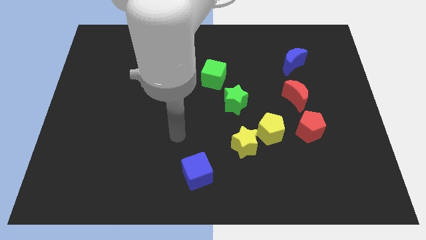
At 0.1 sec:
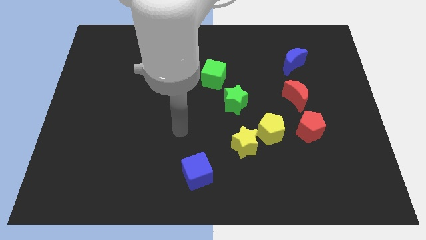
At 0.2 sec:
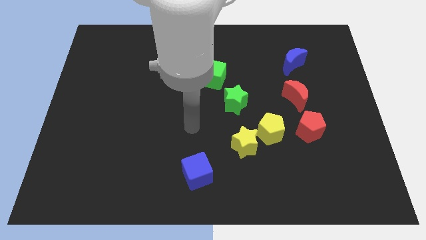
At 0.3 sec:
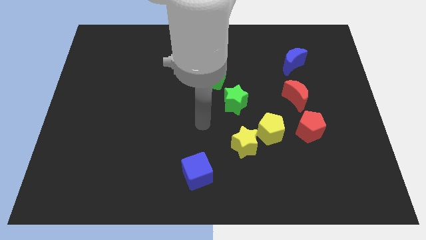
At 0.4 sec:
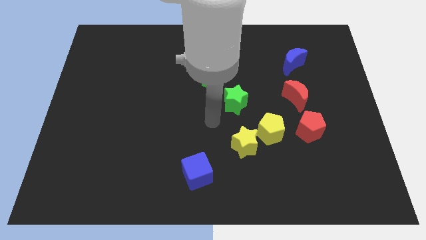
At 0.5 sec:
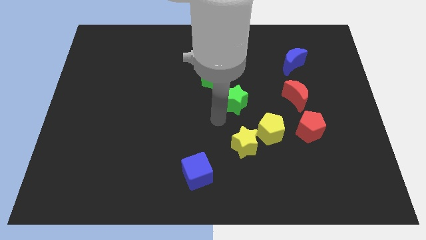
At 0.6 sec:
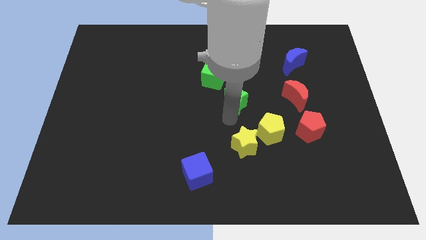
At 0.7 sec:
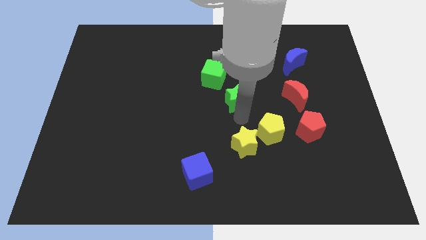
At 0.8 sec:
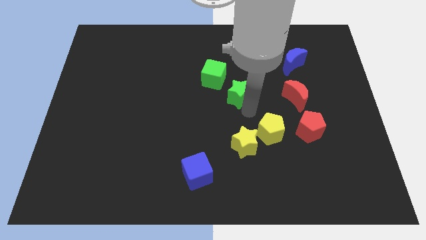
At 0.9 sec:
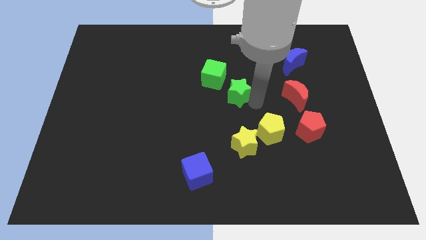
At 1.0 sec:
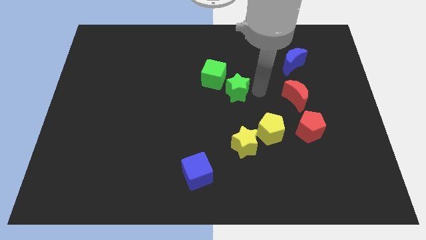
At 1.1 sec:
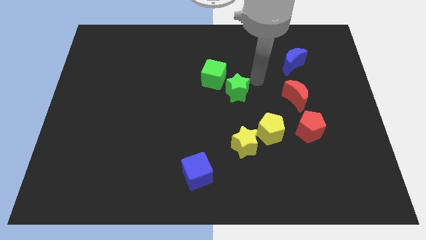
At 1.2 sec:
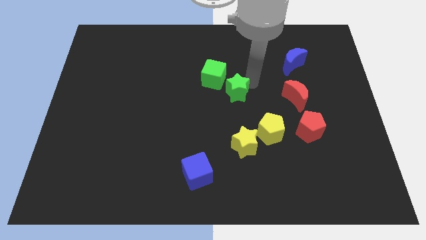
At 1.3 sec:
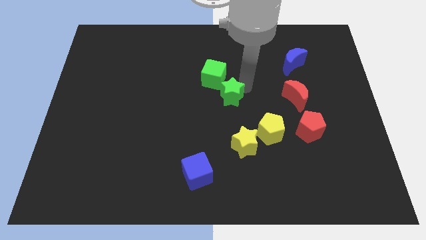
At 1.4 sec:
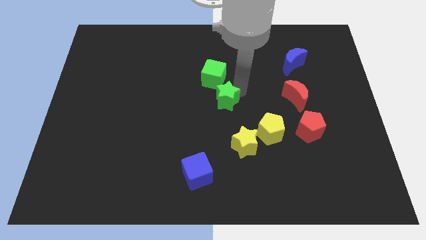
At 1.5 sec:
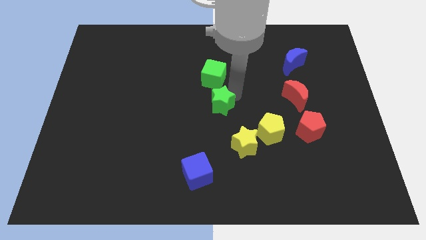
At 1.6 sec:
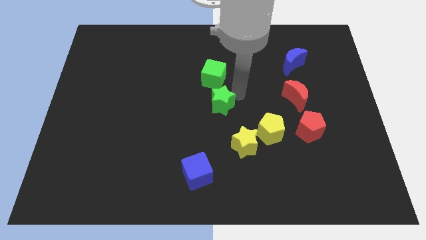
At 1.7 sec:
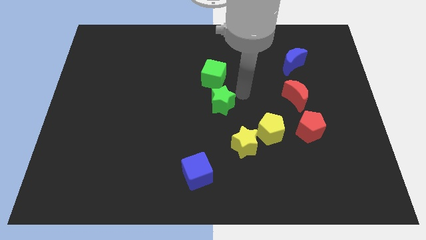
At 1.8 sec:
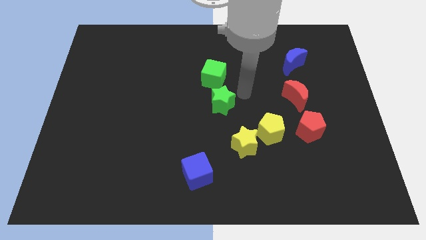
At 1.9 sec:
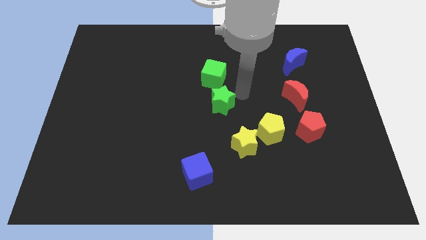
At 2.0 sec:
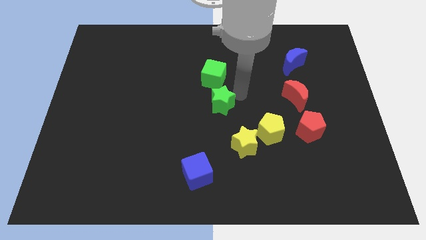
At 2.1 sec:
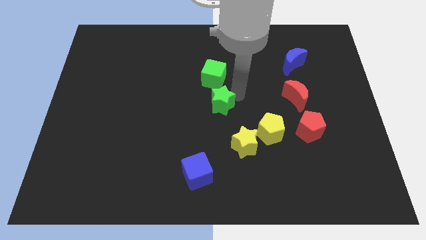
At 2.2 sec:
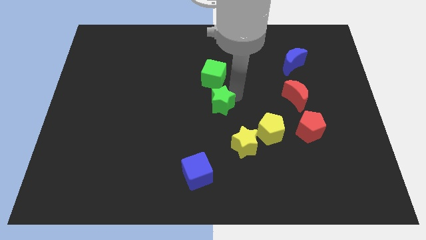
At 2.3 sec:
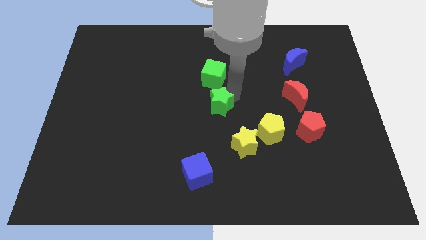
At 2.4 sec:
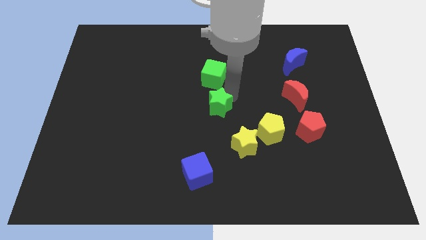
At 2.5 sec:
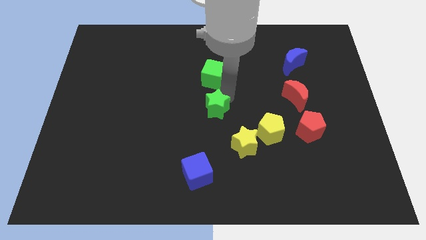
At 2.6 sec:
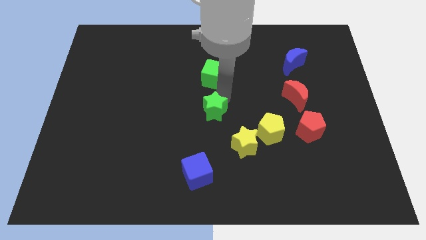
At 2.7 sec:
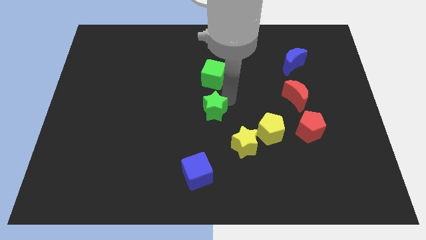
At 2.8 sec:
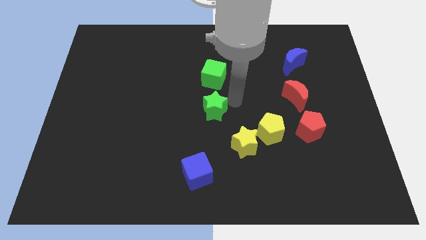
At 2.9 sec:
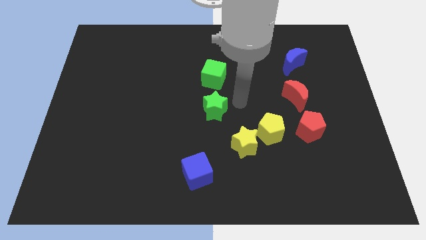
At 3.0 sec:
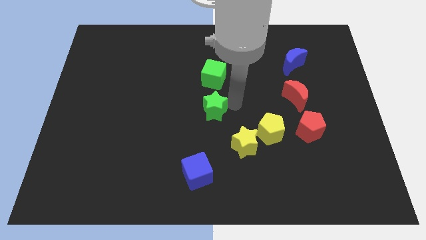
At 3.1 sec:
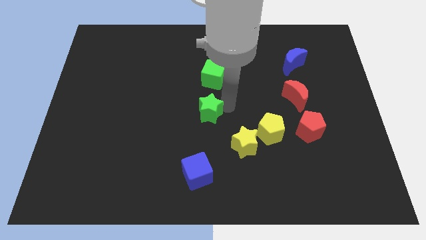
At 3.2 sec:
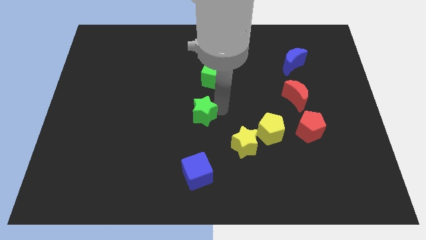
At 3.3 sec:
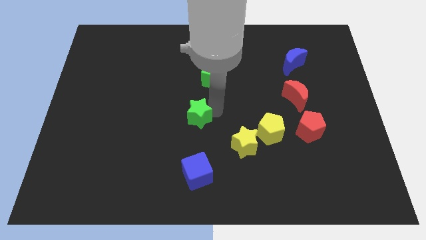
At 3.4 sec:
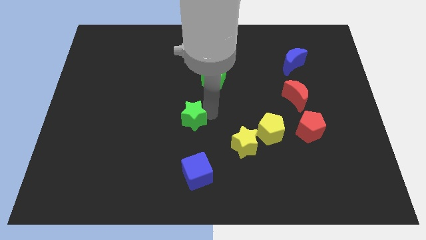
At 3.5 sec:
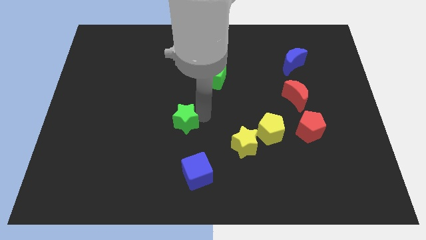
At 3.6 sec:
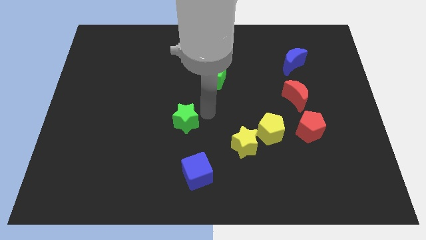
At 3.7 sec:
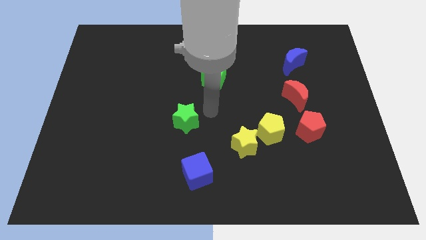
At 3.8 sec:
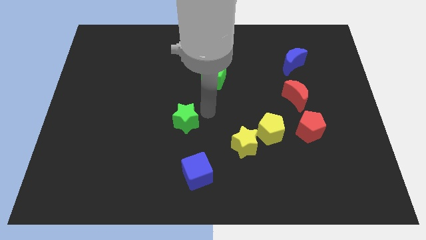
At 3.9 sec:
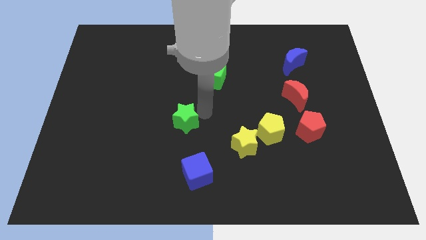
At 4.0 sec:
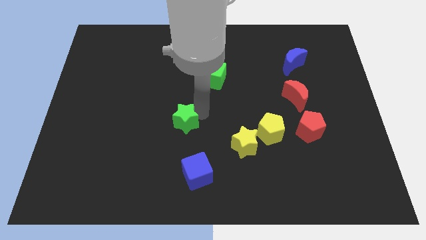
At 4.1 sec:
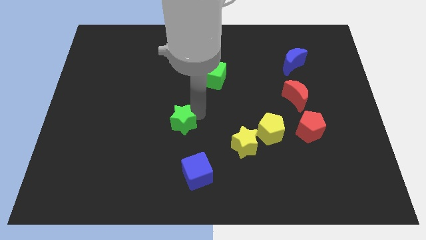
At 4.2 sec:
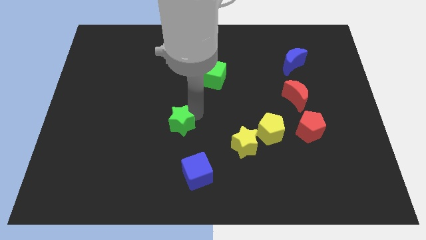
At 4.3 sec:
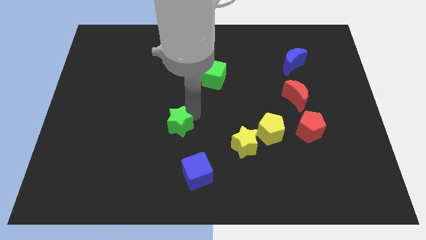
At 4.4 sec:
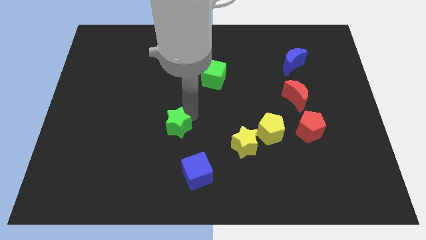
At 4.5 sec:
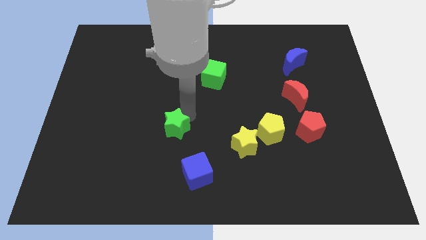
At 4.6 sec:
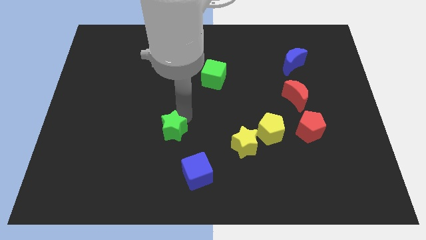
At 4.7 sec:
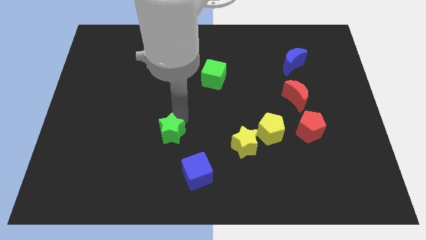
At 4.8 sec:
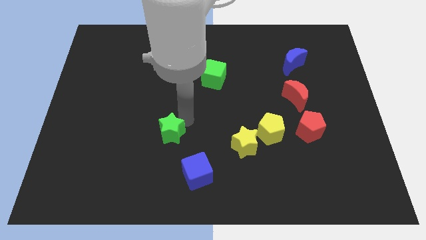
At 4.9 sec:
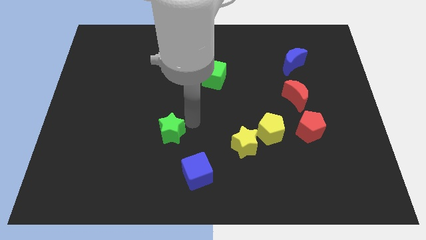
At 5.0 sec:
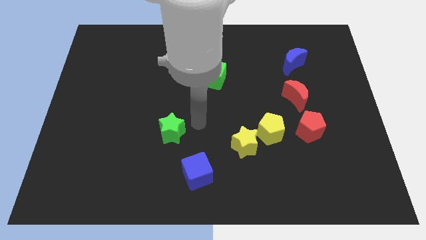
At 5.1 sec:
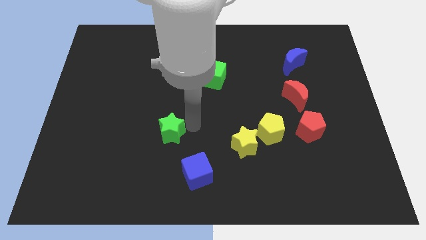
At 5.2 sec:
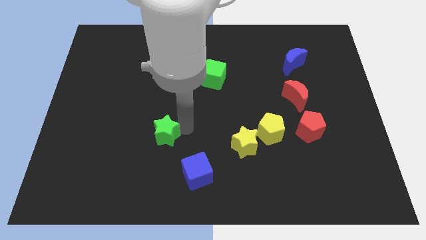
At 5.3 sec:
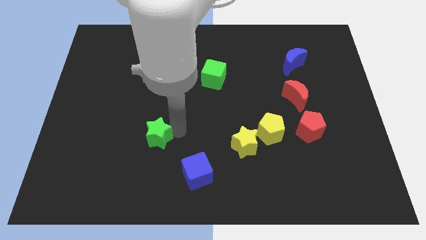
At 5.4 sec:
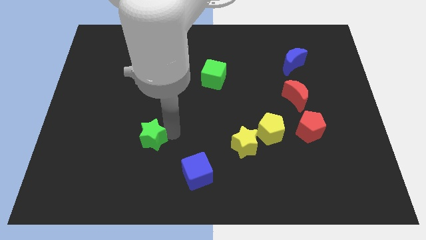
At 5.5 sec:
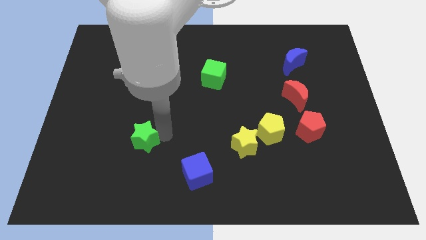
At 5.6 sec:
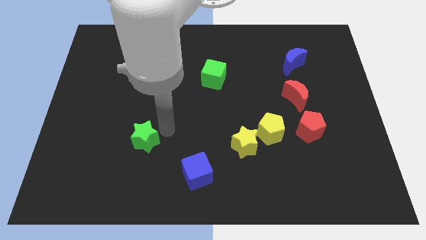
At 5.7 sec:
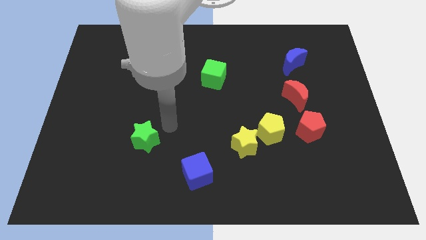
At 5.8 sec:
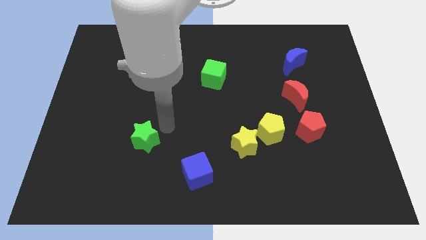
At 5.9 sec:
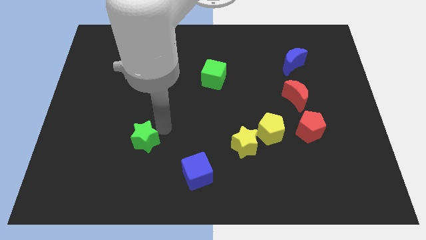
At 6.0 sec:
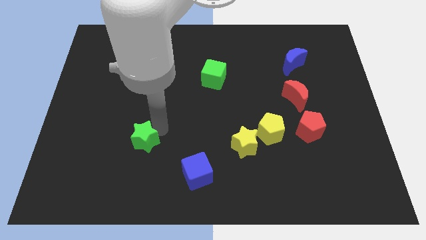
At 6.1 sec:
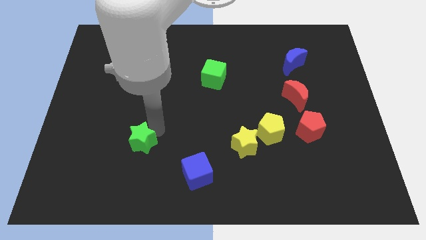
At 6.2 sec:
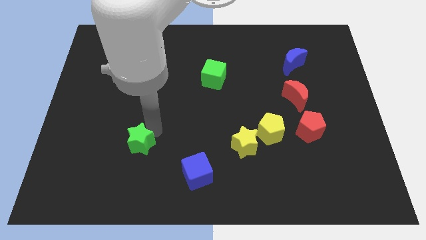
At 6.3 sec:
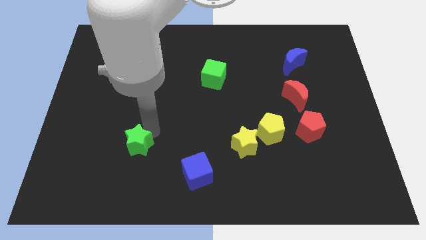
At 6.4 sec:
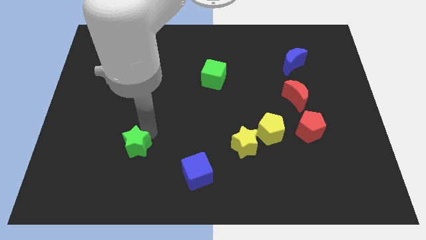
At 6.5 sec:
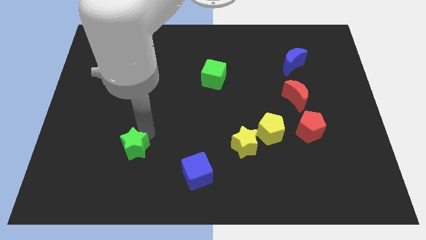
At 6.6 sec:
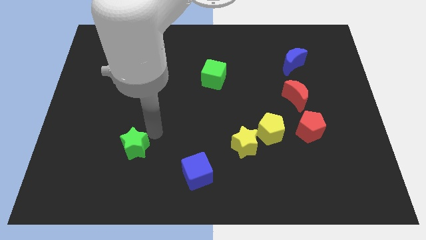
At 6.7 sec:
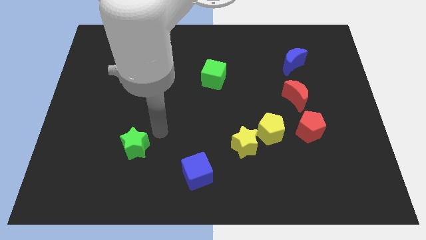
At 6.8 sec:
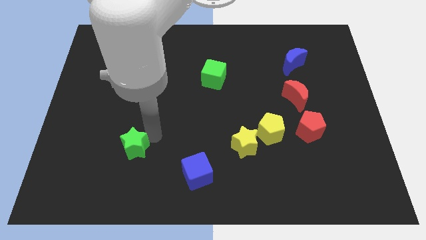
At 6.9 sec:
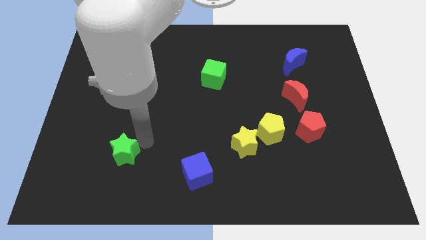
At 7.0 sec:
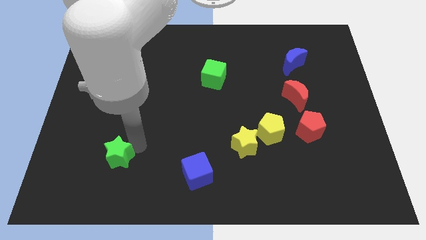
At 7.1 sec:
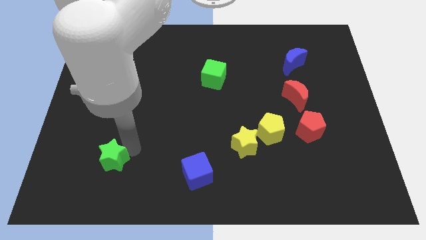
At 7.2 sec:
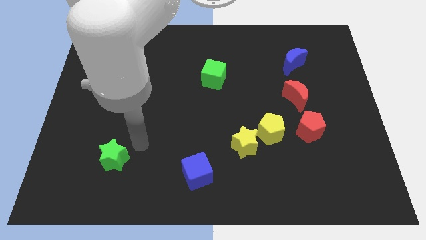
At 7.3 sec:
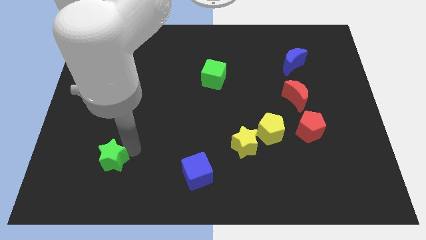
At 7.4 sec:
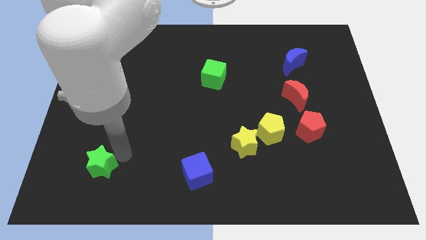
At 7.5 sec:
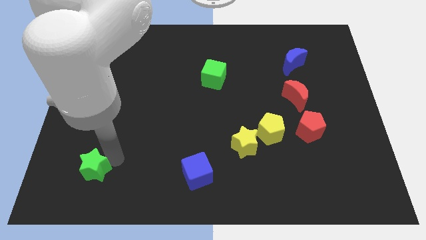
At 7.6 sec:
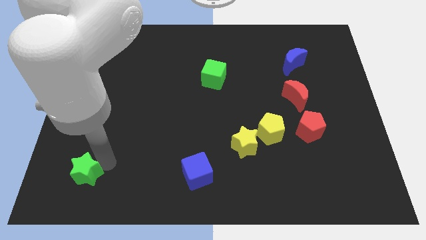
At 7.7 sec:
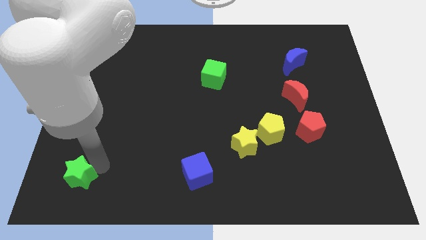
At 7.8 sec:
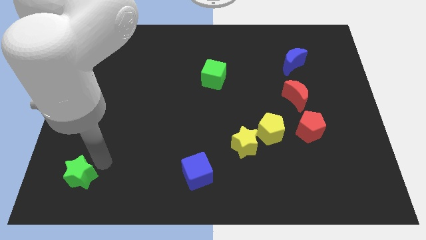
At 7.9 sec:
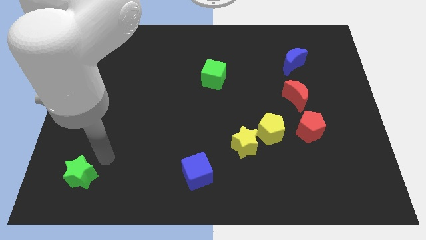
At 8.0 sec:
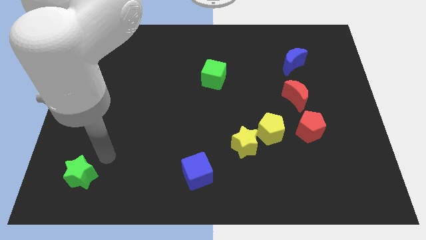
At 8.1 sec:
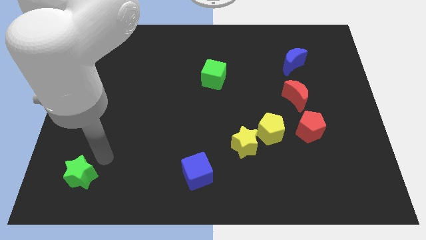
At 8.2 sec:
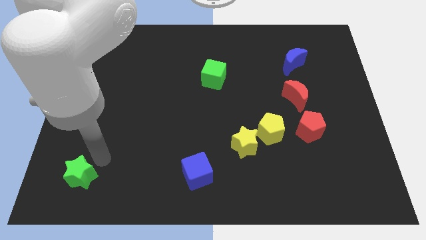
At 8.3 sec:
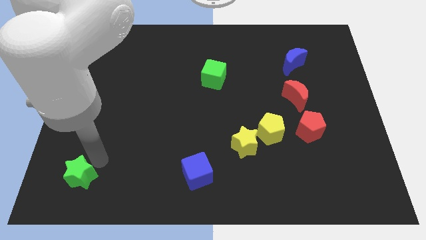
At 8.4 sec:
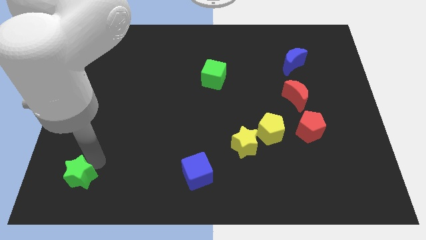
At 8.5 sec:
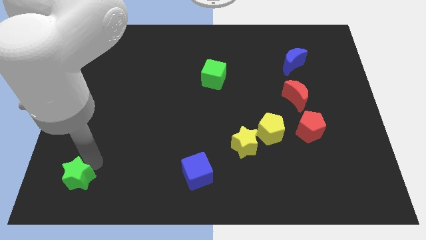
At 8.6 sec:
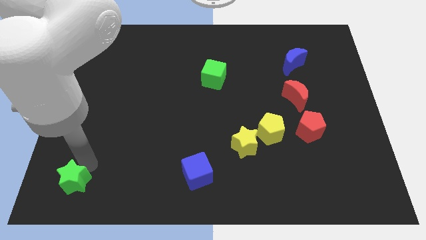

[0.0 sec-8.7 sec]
push the green star to the bottom left of the board
